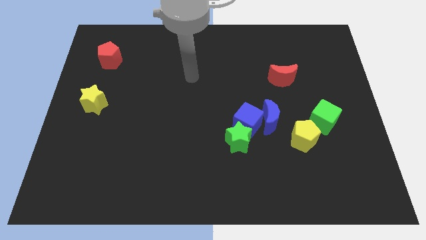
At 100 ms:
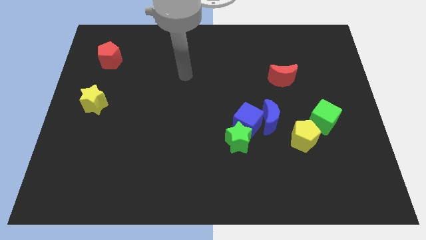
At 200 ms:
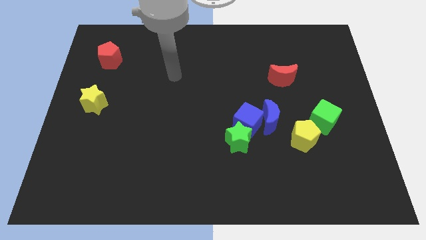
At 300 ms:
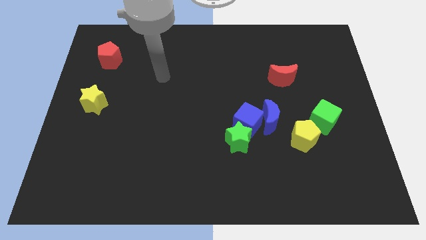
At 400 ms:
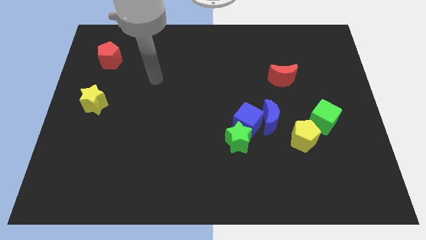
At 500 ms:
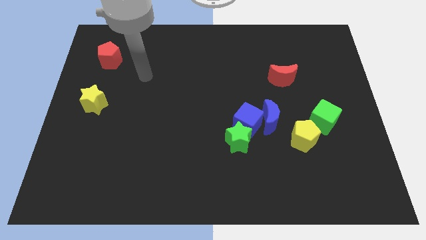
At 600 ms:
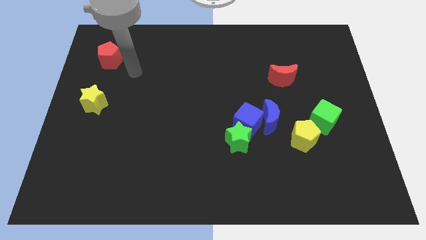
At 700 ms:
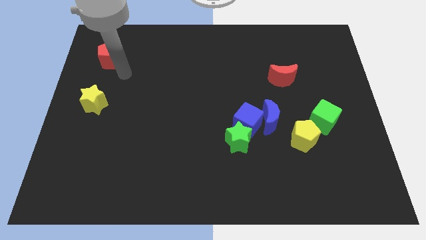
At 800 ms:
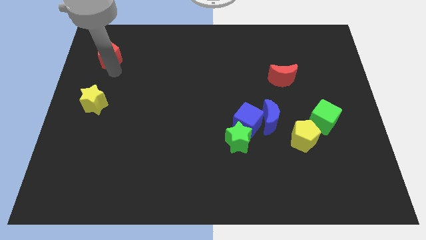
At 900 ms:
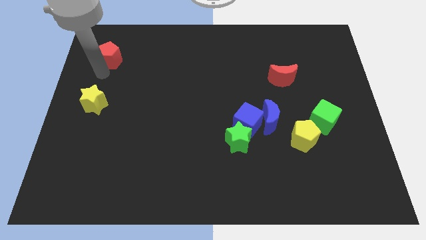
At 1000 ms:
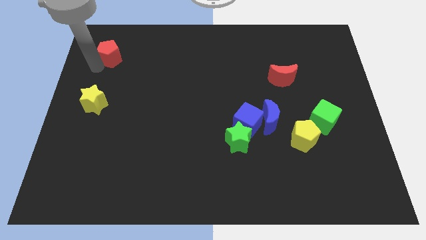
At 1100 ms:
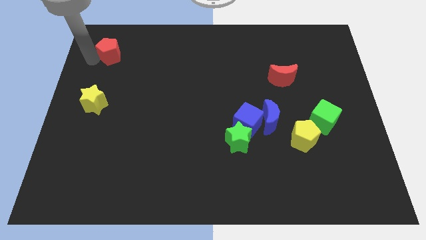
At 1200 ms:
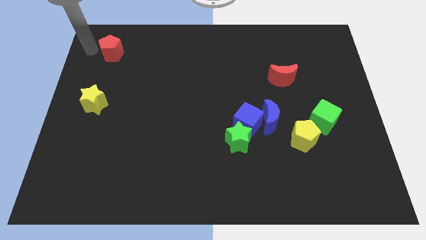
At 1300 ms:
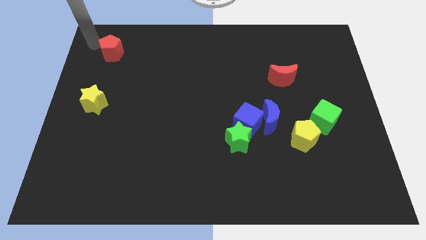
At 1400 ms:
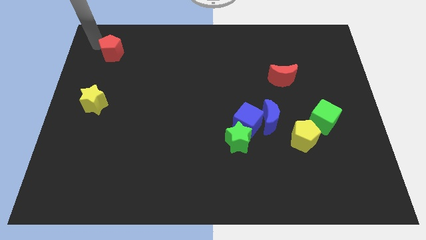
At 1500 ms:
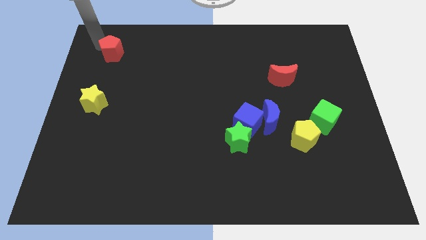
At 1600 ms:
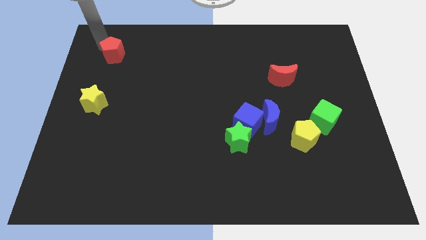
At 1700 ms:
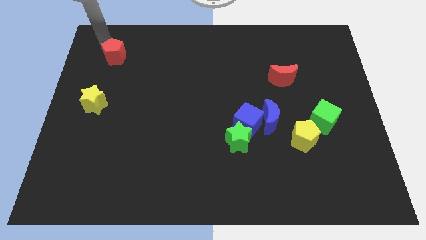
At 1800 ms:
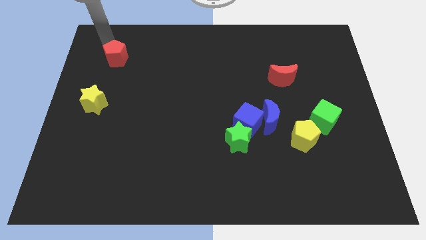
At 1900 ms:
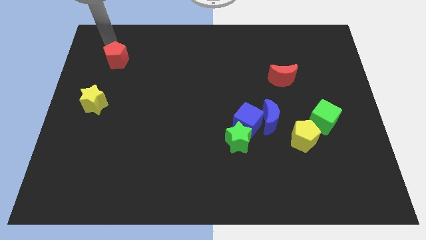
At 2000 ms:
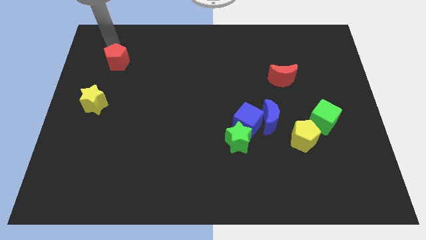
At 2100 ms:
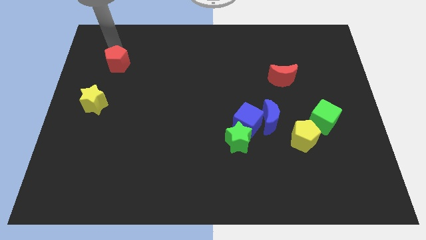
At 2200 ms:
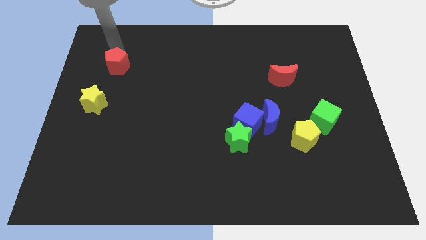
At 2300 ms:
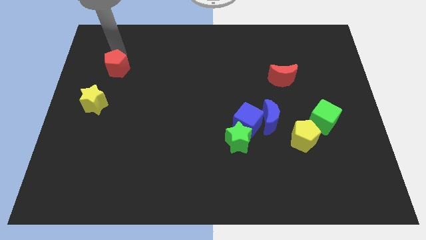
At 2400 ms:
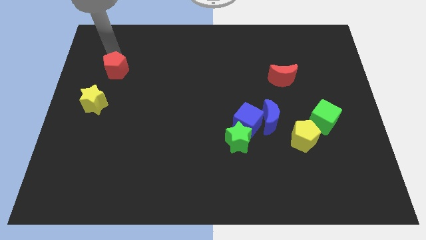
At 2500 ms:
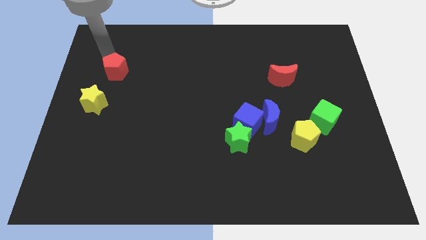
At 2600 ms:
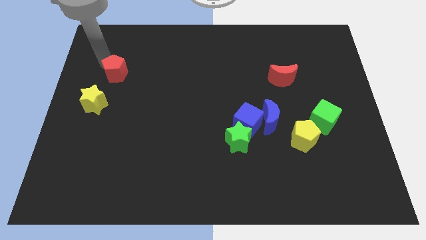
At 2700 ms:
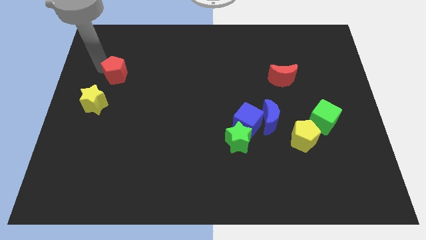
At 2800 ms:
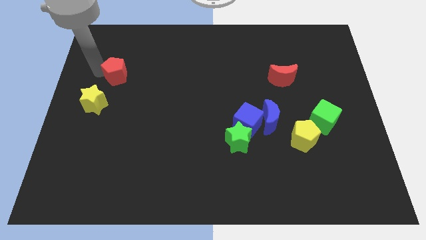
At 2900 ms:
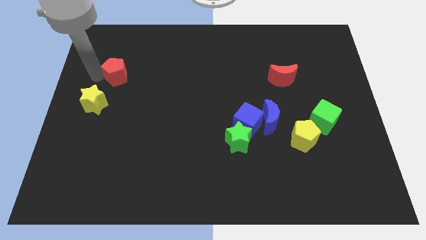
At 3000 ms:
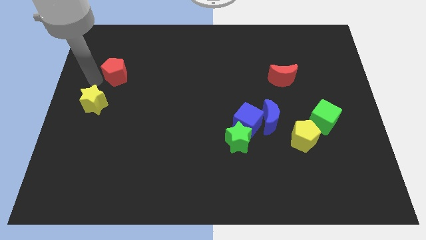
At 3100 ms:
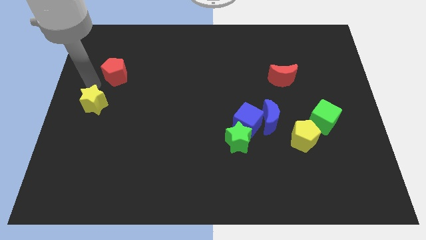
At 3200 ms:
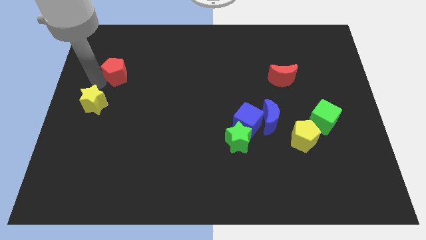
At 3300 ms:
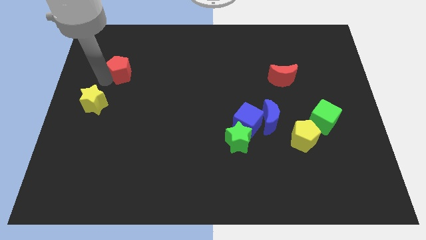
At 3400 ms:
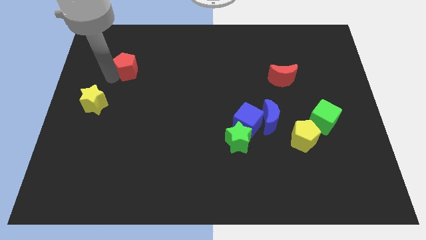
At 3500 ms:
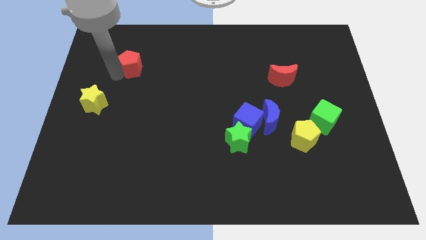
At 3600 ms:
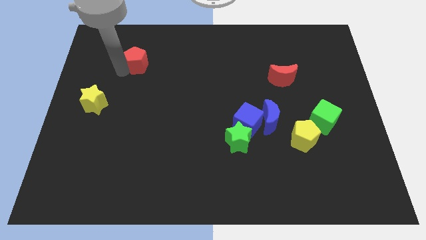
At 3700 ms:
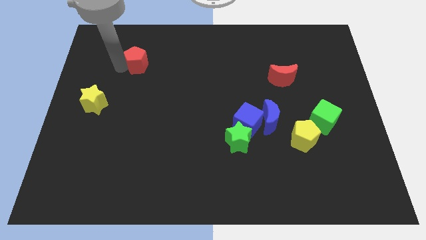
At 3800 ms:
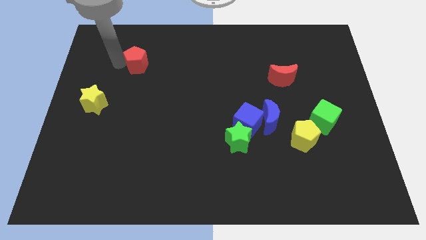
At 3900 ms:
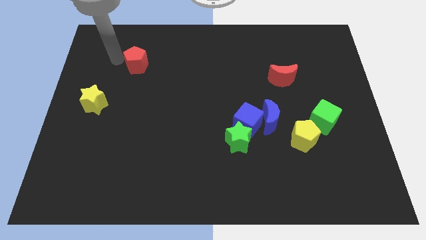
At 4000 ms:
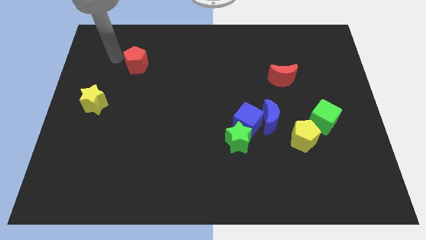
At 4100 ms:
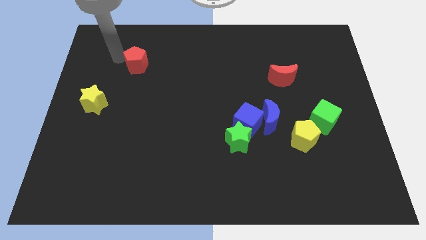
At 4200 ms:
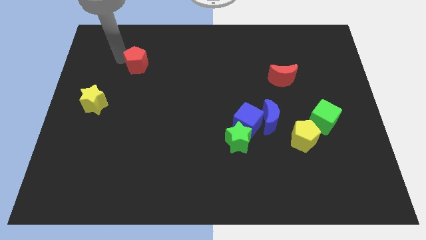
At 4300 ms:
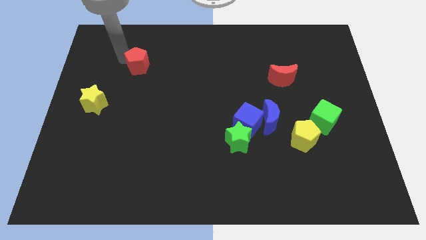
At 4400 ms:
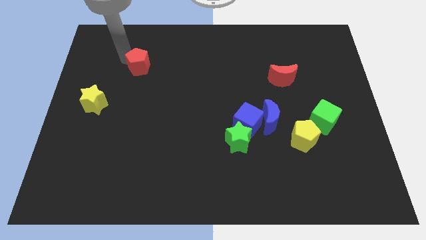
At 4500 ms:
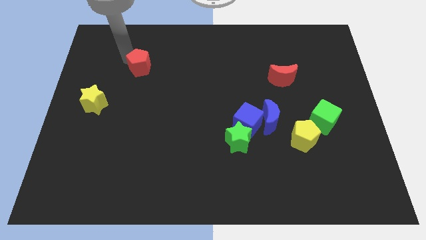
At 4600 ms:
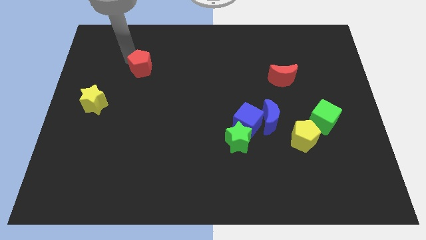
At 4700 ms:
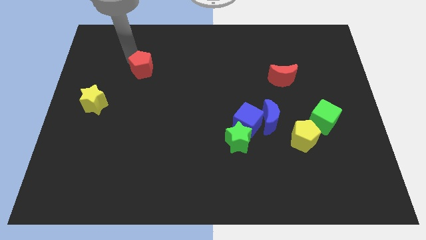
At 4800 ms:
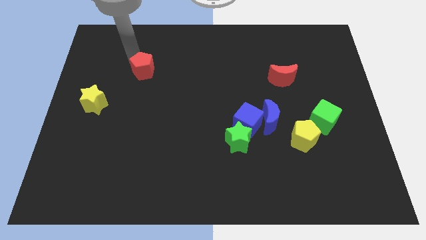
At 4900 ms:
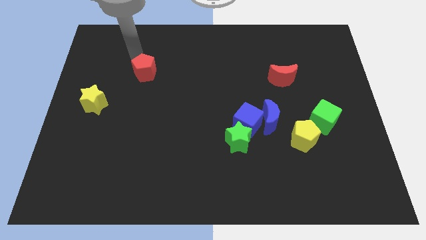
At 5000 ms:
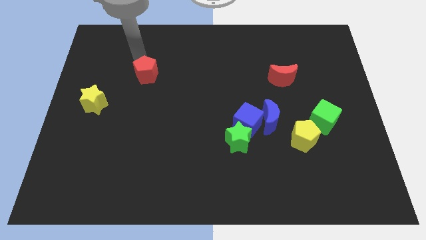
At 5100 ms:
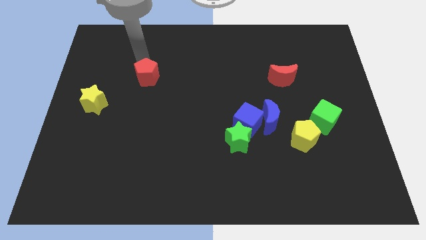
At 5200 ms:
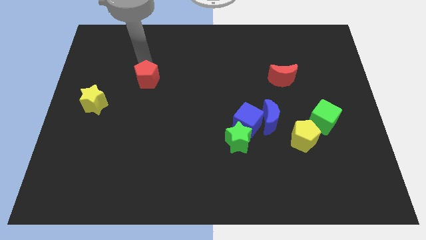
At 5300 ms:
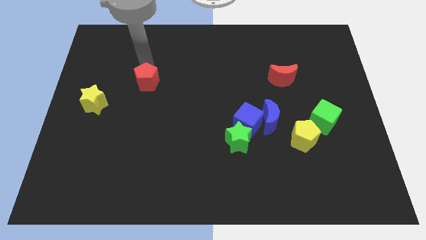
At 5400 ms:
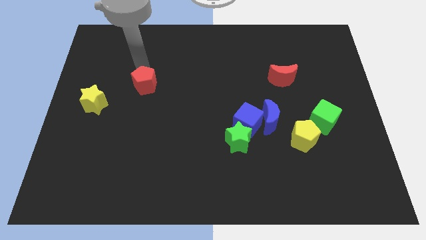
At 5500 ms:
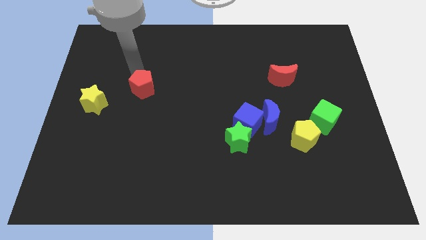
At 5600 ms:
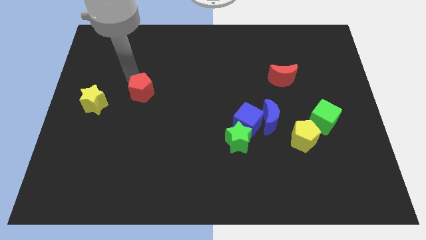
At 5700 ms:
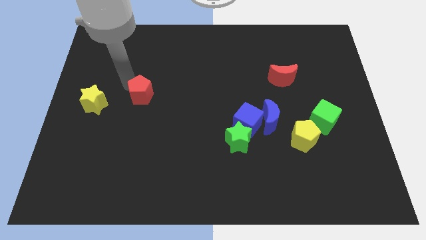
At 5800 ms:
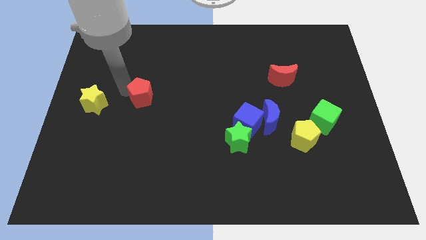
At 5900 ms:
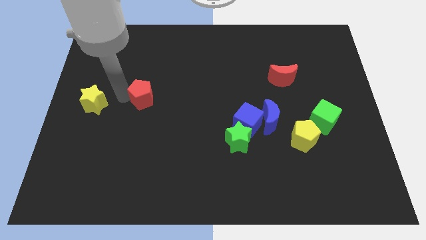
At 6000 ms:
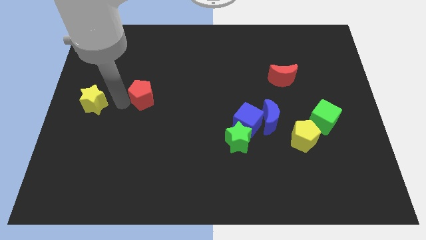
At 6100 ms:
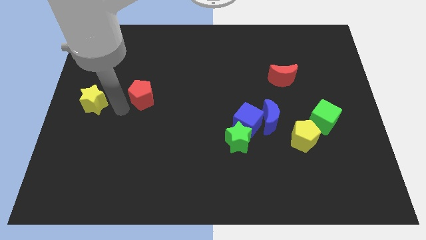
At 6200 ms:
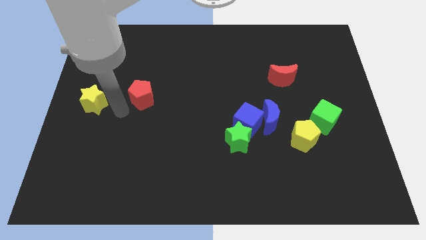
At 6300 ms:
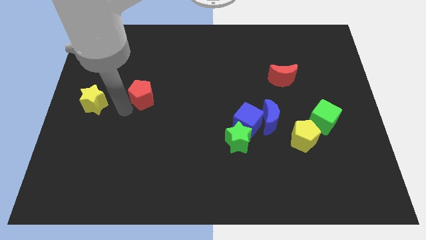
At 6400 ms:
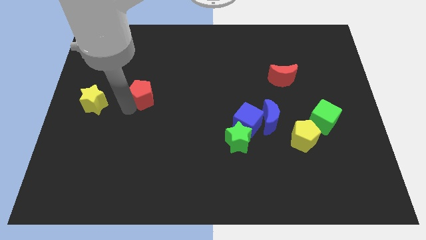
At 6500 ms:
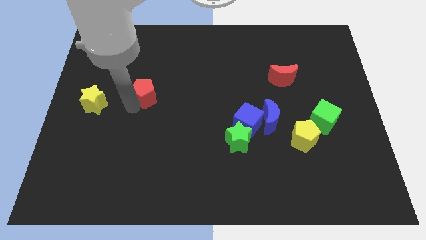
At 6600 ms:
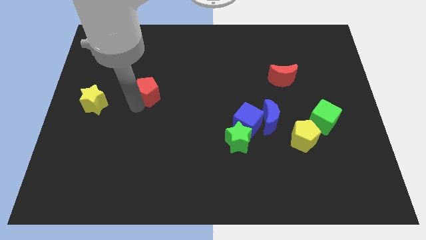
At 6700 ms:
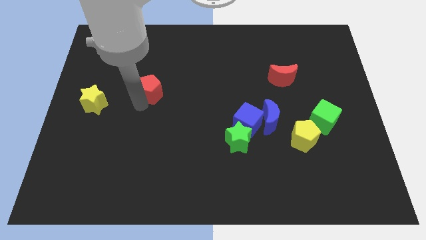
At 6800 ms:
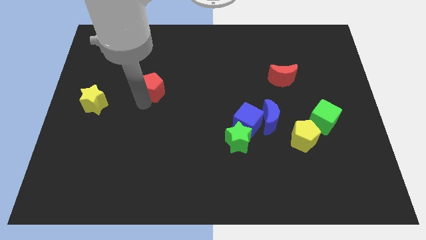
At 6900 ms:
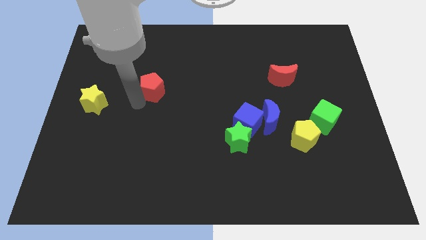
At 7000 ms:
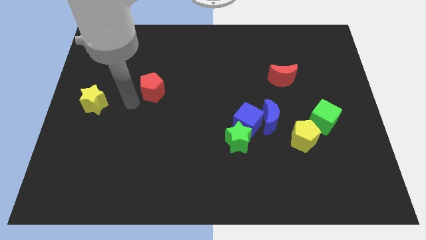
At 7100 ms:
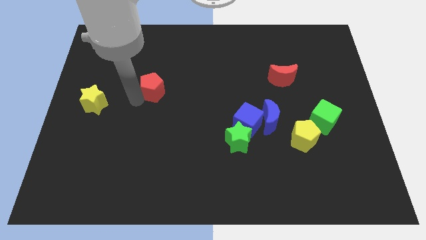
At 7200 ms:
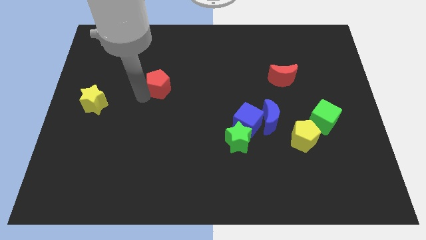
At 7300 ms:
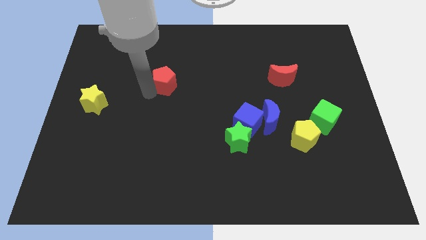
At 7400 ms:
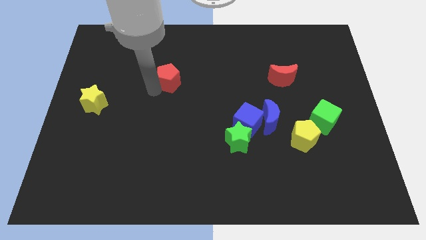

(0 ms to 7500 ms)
put the red pentagon to the middle
